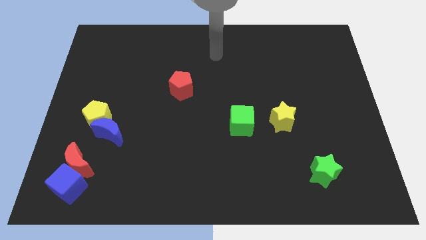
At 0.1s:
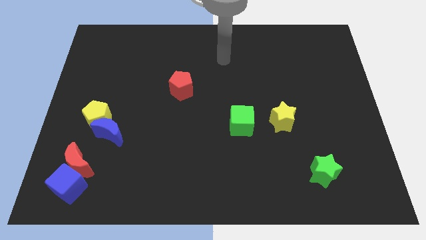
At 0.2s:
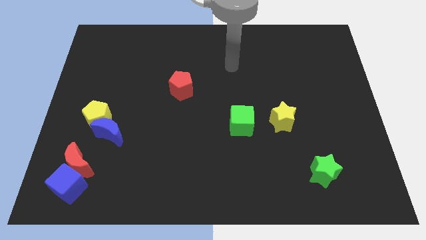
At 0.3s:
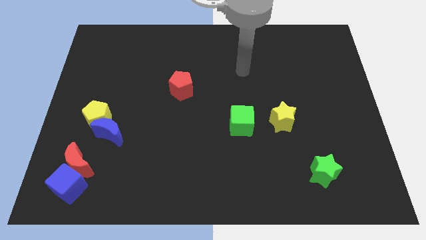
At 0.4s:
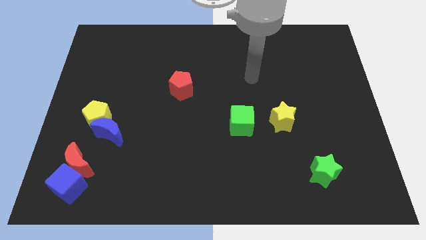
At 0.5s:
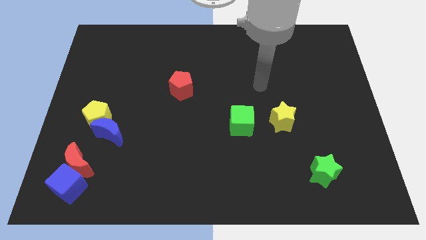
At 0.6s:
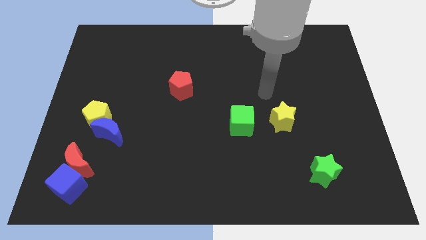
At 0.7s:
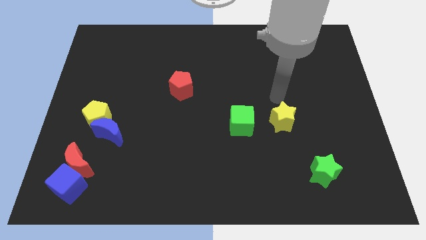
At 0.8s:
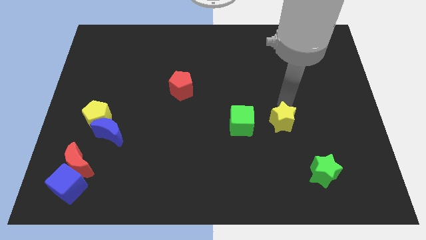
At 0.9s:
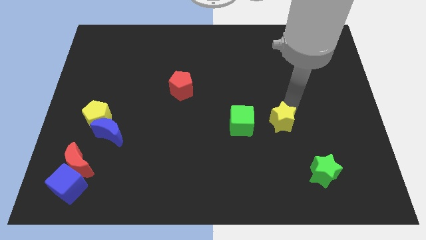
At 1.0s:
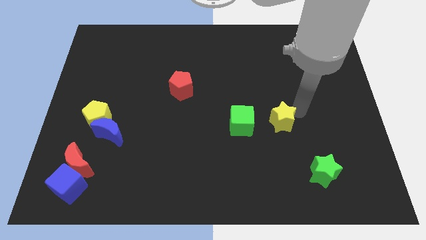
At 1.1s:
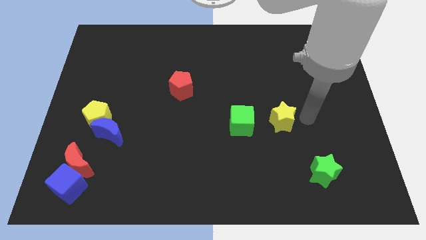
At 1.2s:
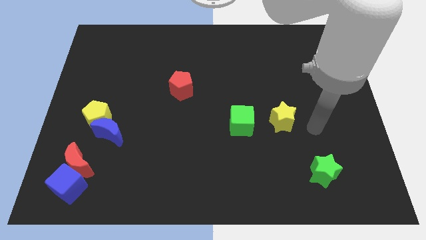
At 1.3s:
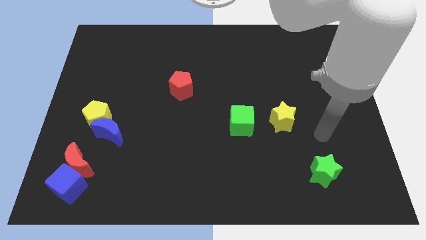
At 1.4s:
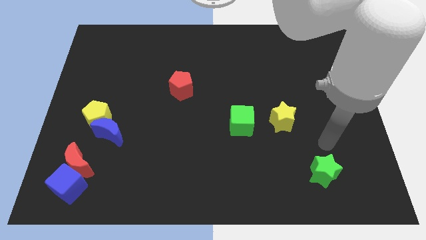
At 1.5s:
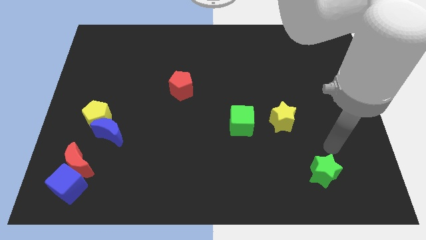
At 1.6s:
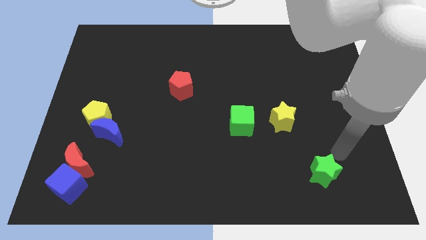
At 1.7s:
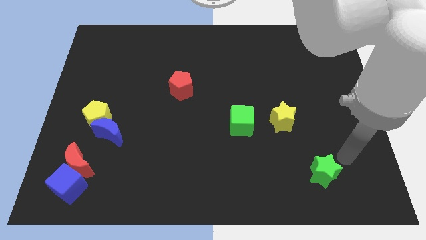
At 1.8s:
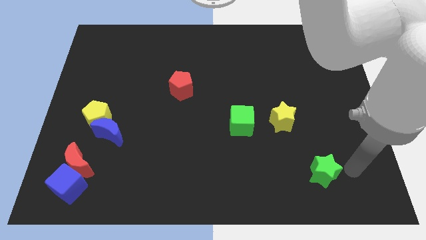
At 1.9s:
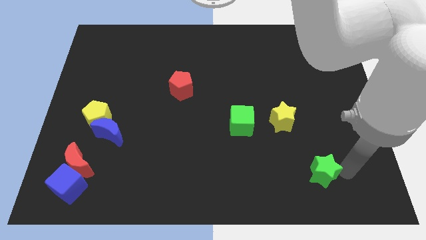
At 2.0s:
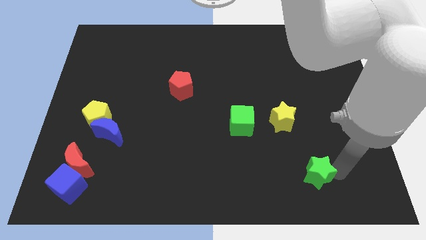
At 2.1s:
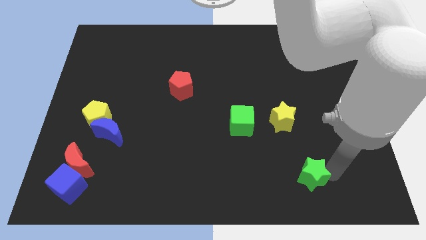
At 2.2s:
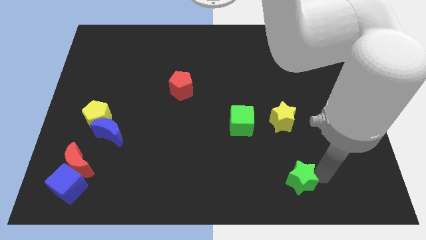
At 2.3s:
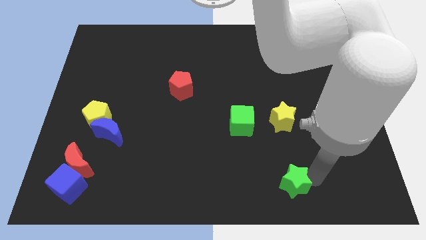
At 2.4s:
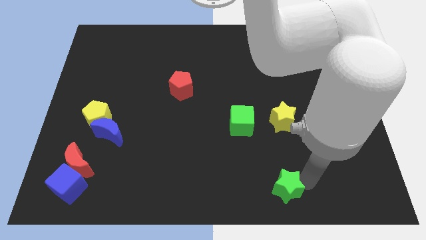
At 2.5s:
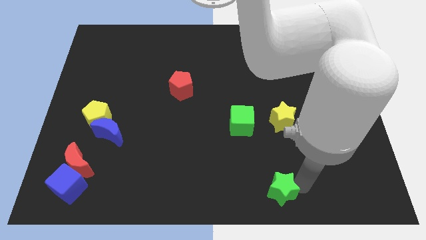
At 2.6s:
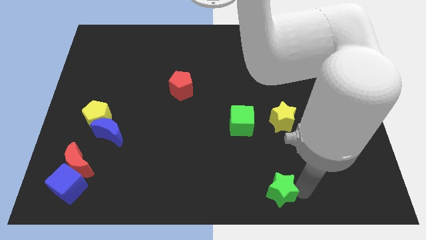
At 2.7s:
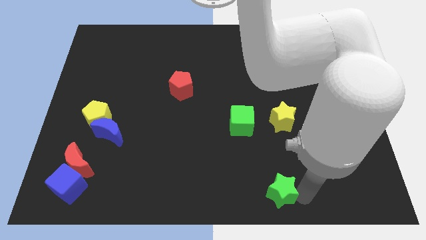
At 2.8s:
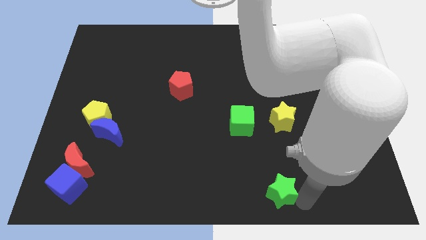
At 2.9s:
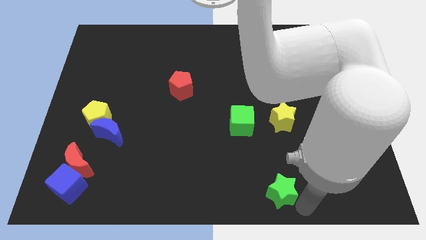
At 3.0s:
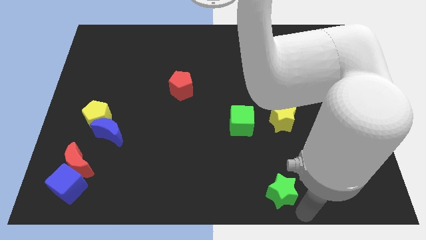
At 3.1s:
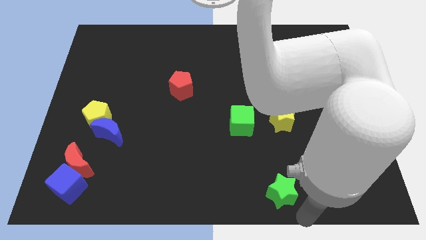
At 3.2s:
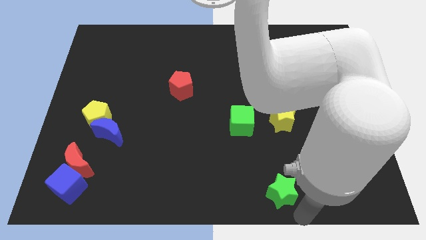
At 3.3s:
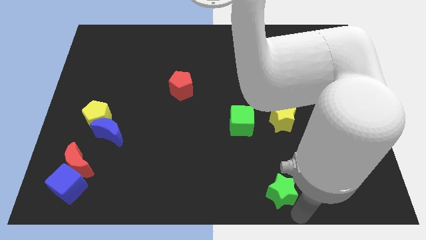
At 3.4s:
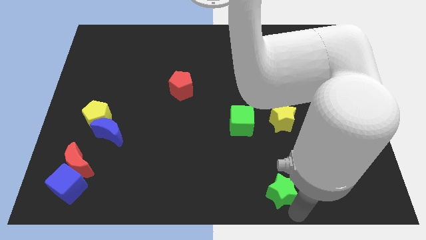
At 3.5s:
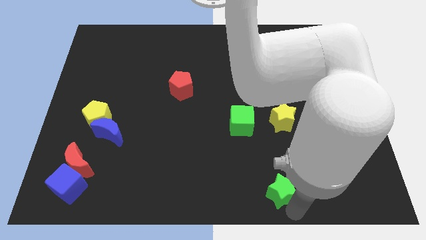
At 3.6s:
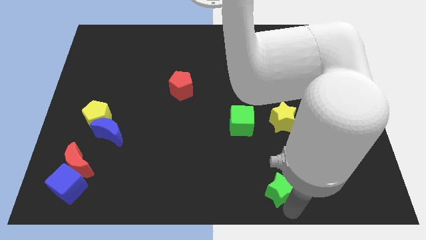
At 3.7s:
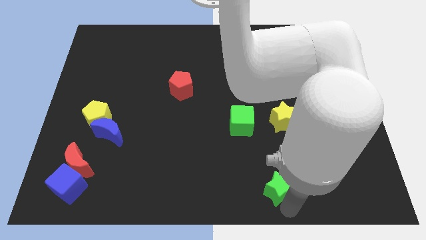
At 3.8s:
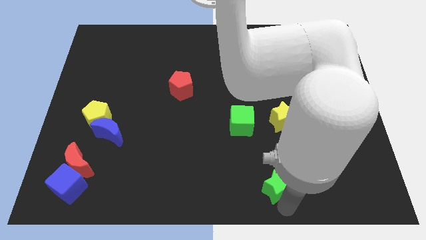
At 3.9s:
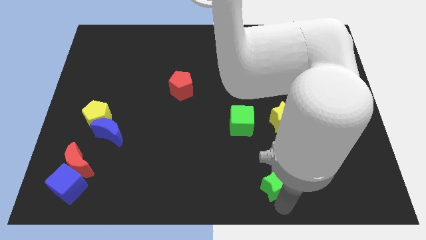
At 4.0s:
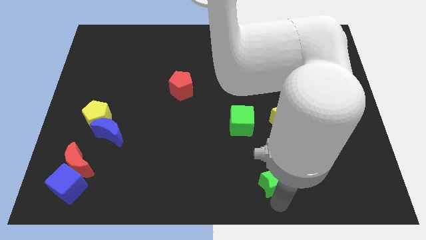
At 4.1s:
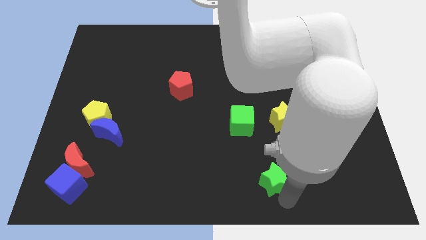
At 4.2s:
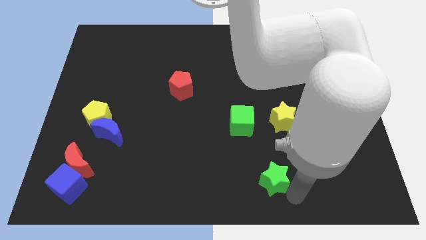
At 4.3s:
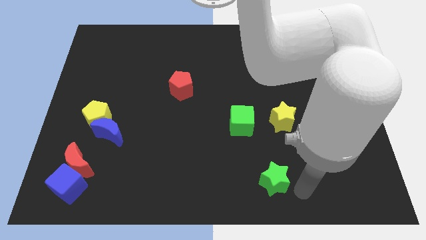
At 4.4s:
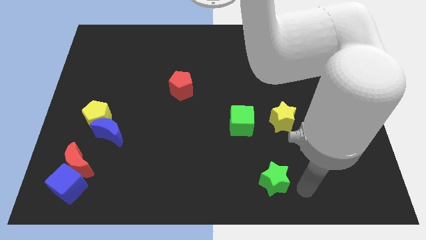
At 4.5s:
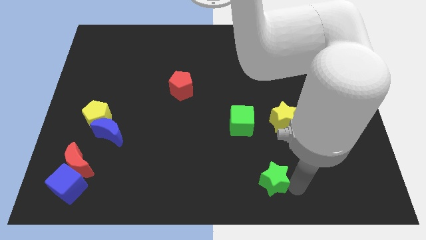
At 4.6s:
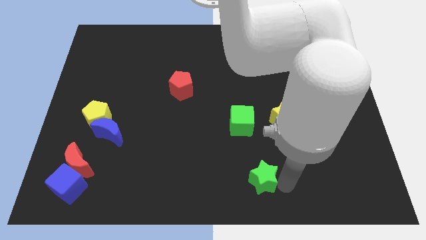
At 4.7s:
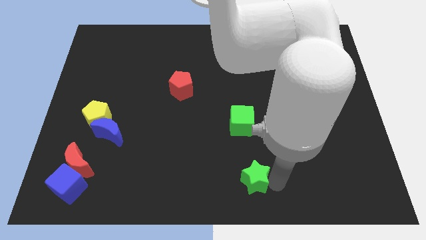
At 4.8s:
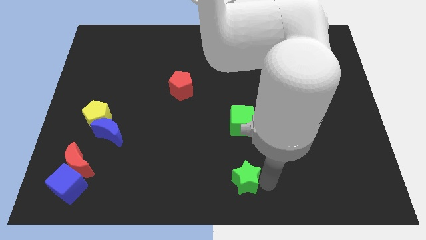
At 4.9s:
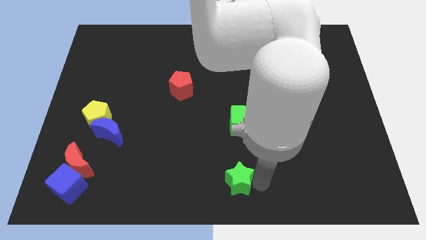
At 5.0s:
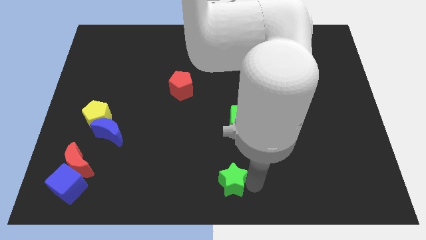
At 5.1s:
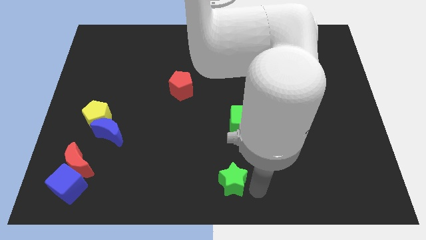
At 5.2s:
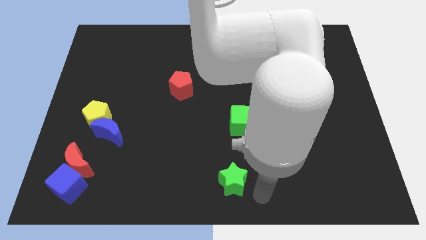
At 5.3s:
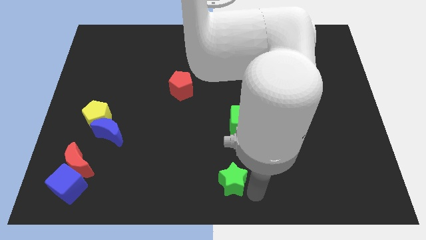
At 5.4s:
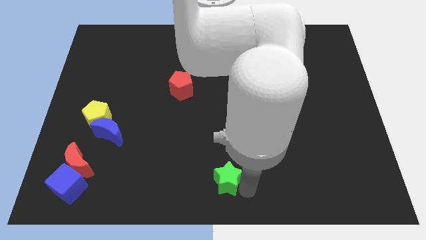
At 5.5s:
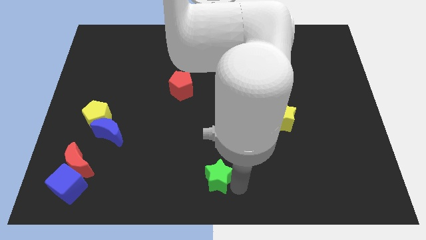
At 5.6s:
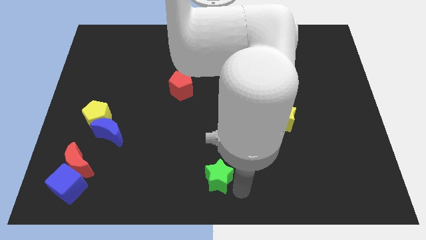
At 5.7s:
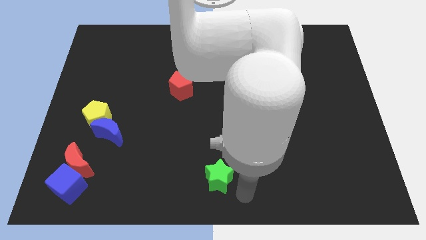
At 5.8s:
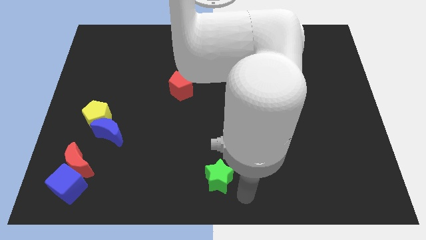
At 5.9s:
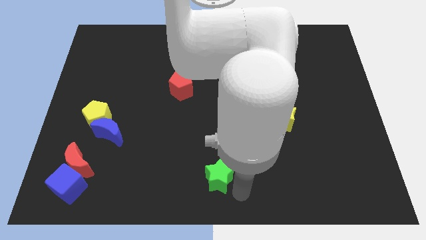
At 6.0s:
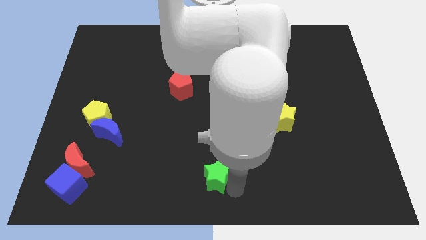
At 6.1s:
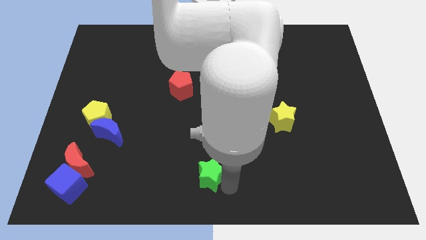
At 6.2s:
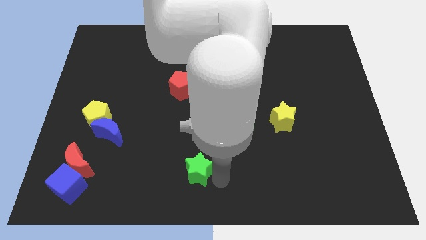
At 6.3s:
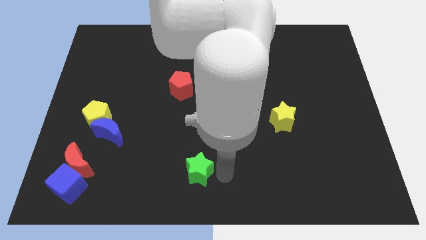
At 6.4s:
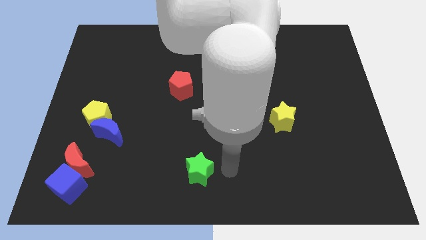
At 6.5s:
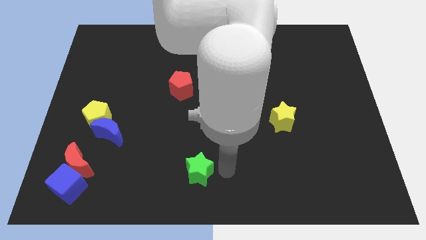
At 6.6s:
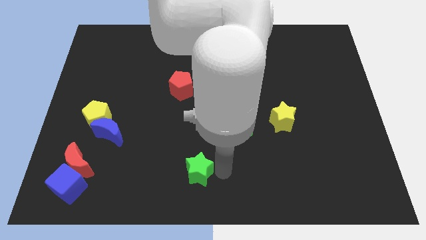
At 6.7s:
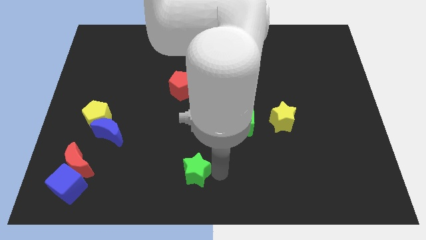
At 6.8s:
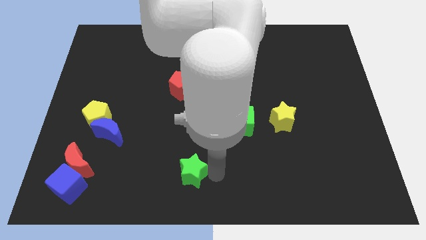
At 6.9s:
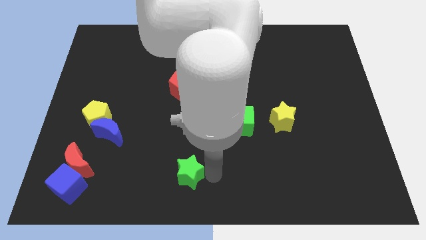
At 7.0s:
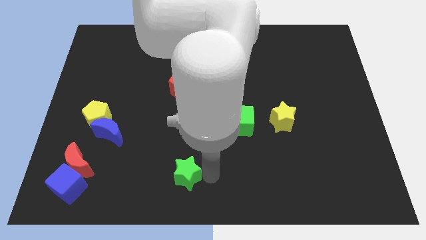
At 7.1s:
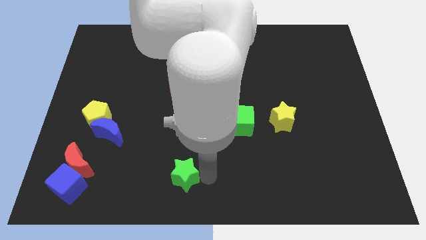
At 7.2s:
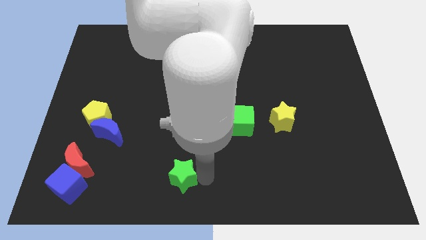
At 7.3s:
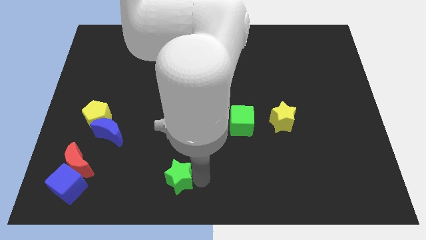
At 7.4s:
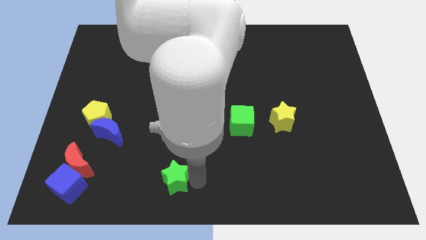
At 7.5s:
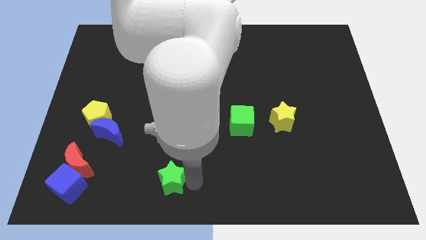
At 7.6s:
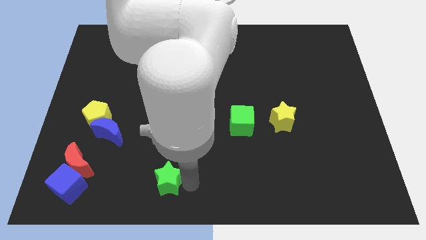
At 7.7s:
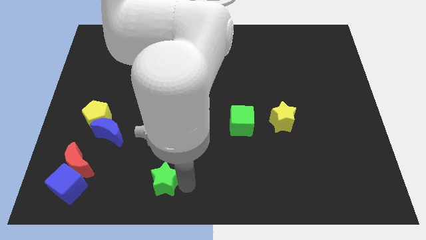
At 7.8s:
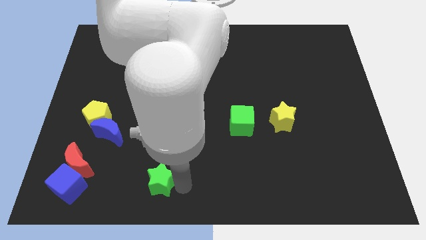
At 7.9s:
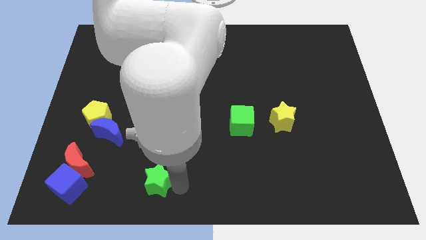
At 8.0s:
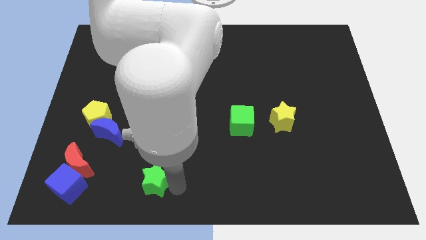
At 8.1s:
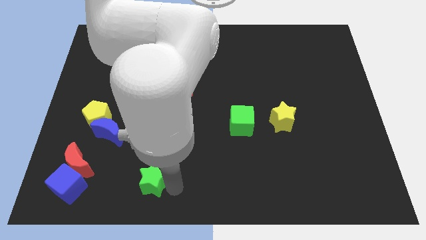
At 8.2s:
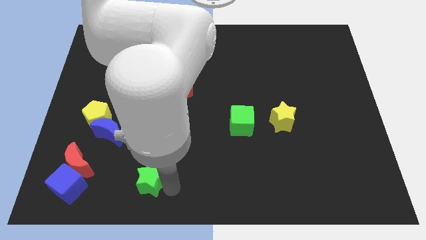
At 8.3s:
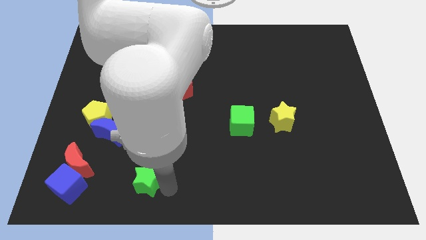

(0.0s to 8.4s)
move the green star right of the red moon
